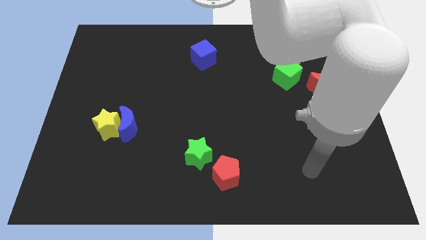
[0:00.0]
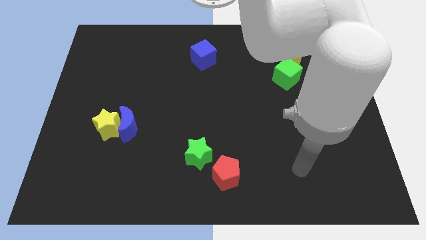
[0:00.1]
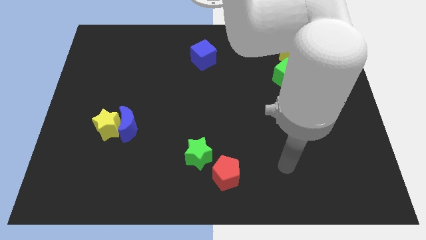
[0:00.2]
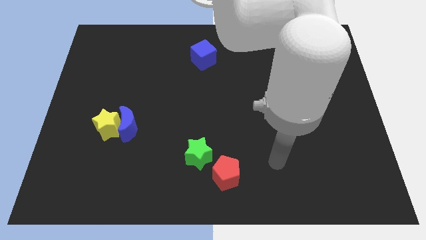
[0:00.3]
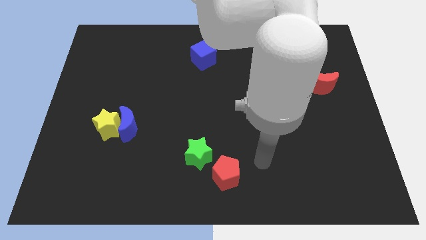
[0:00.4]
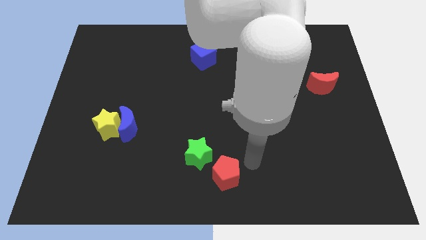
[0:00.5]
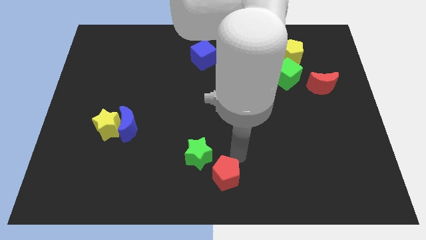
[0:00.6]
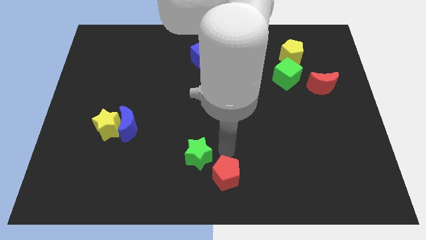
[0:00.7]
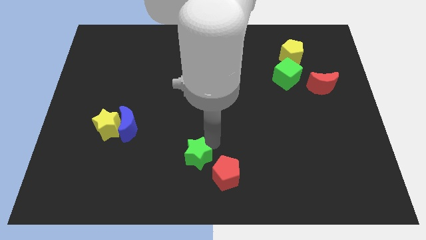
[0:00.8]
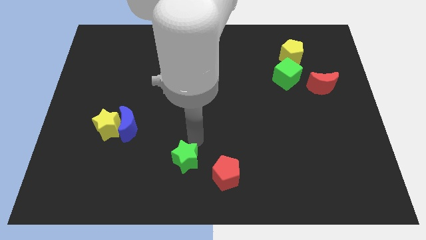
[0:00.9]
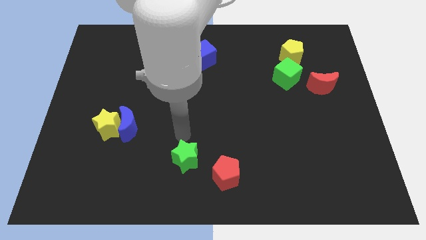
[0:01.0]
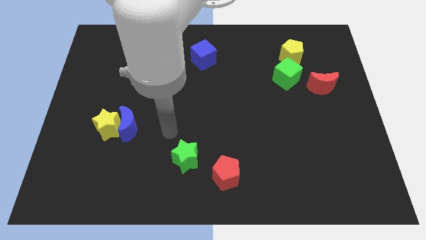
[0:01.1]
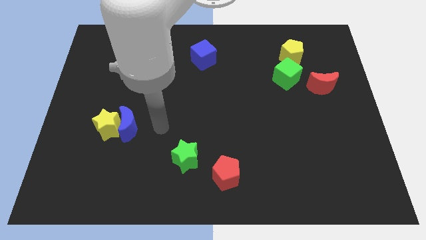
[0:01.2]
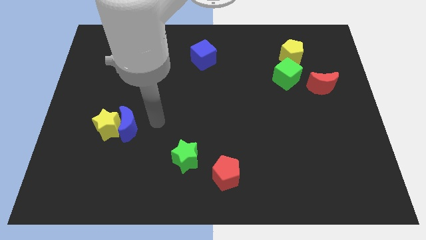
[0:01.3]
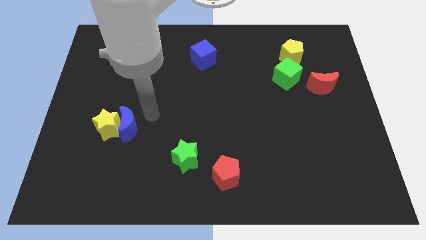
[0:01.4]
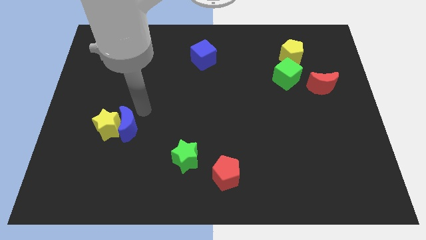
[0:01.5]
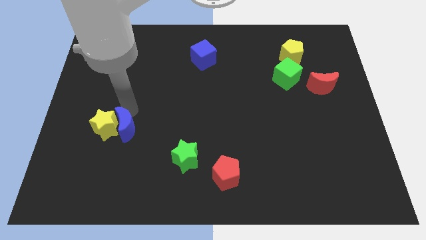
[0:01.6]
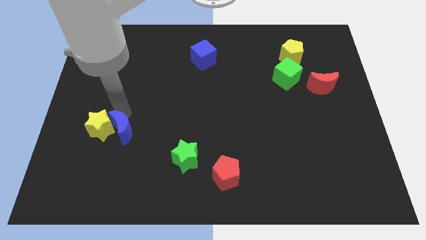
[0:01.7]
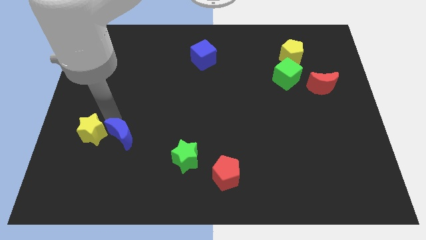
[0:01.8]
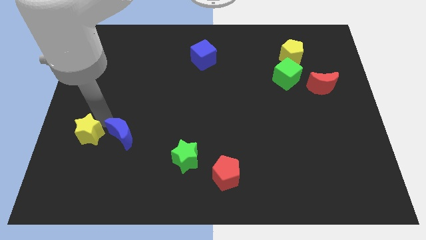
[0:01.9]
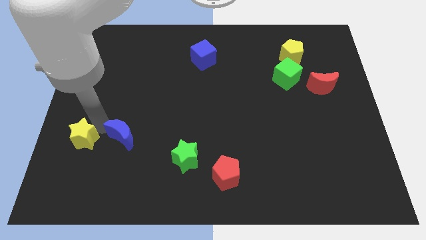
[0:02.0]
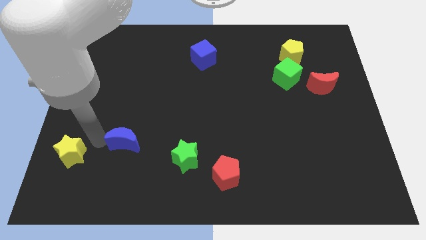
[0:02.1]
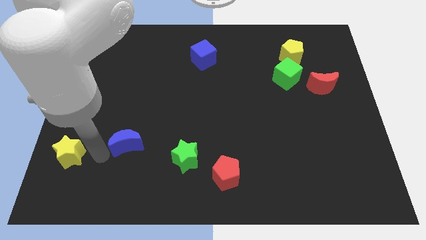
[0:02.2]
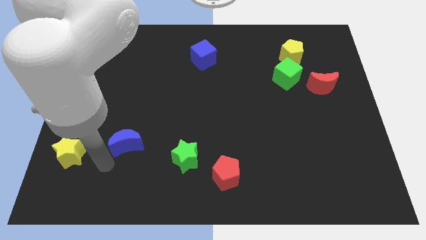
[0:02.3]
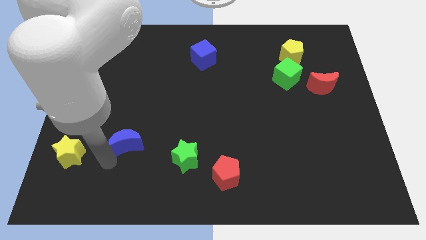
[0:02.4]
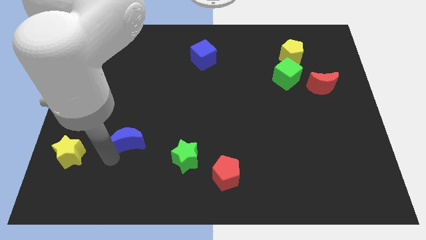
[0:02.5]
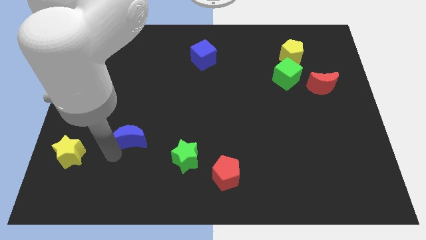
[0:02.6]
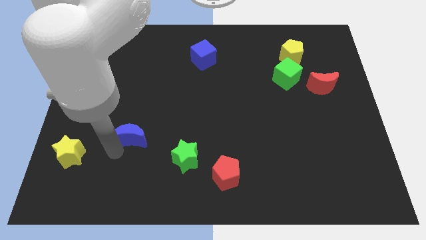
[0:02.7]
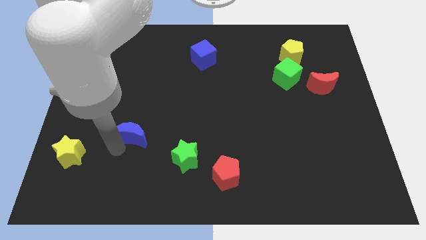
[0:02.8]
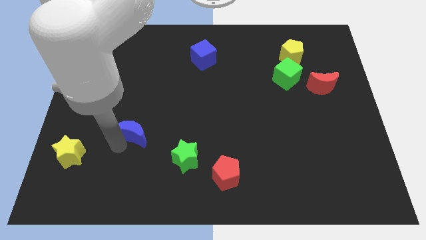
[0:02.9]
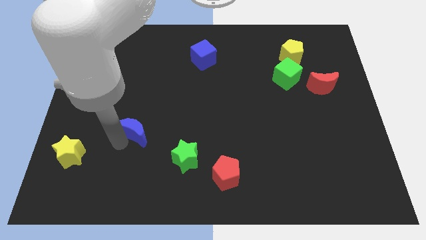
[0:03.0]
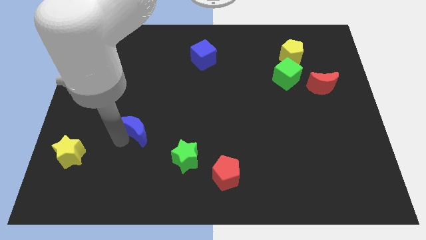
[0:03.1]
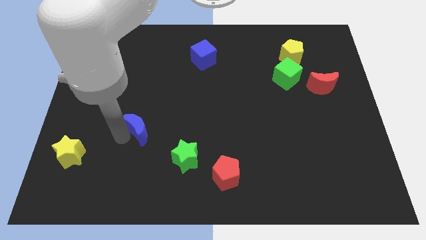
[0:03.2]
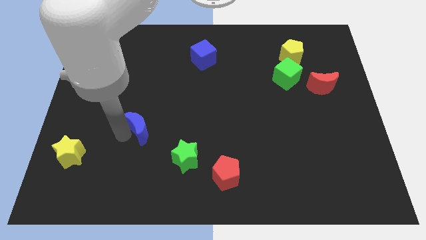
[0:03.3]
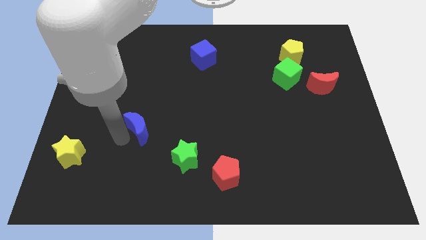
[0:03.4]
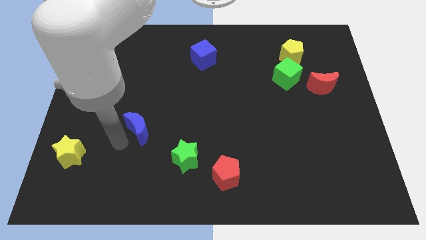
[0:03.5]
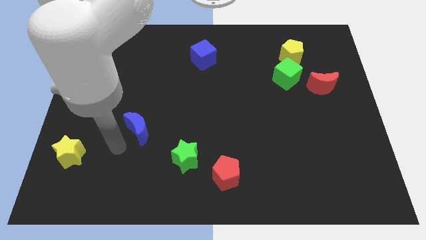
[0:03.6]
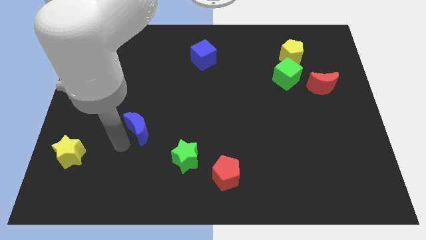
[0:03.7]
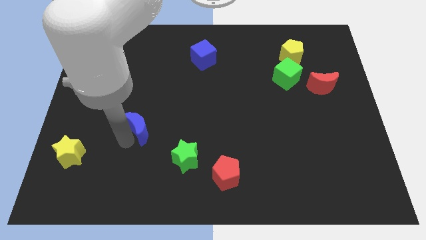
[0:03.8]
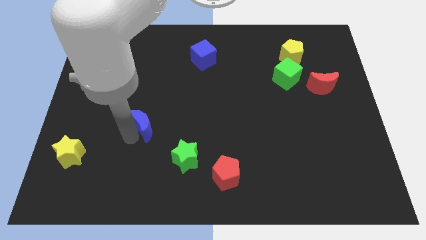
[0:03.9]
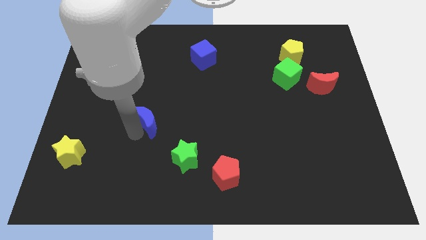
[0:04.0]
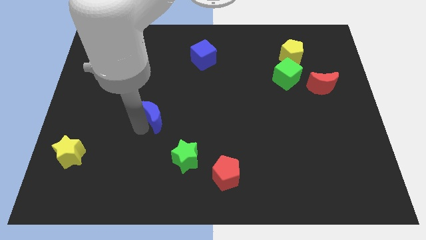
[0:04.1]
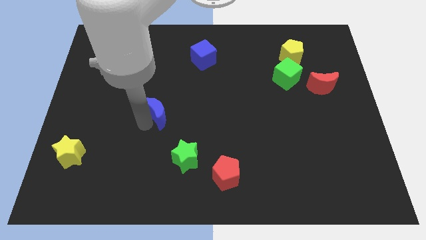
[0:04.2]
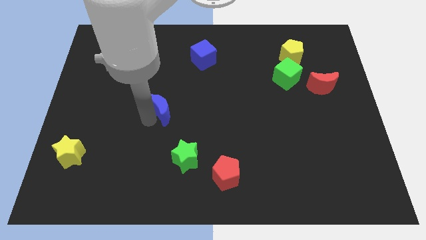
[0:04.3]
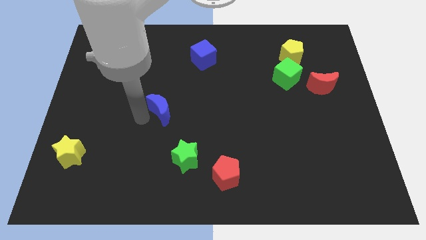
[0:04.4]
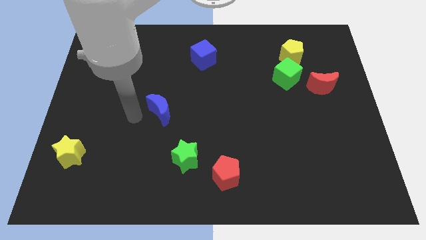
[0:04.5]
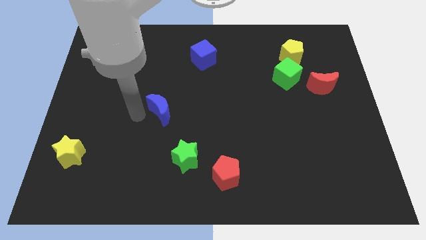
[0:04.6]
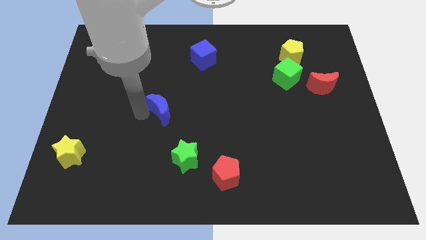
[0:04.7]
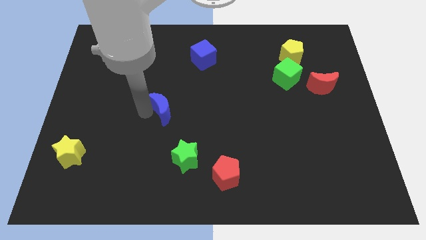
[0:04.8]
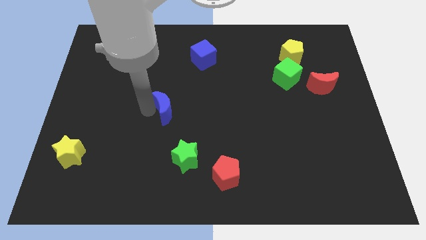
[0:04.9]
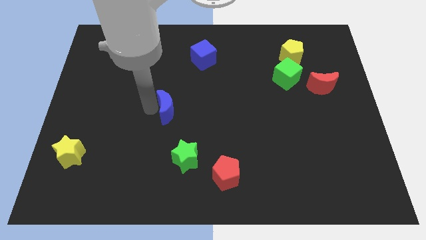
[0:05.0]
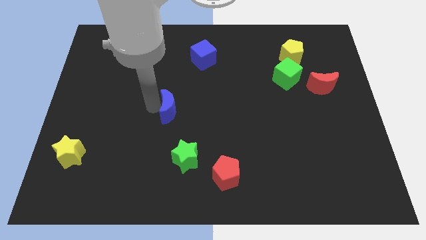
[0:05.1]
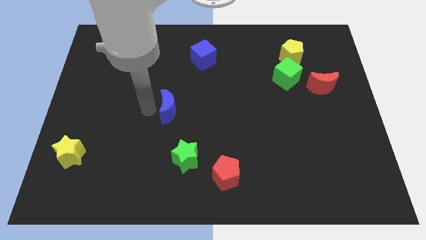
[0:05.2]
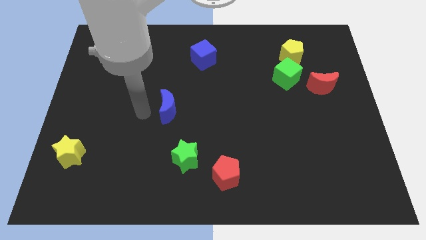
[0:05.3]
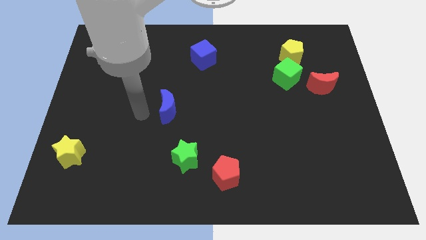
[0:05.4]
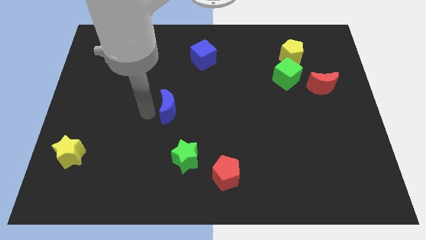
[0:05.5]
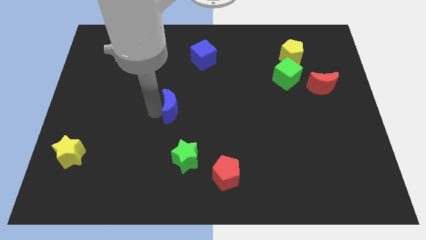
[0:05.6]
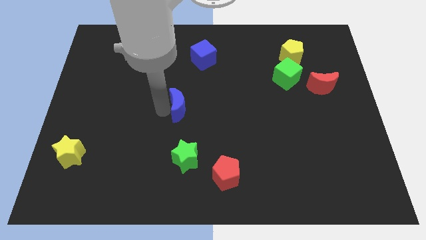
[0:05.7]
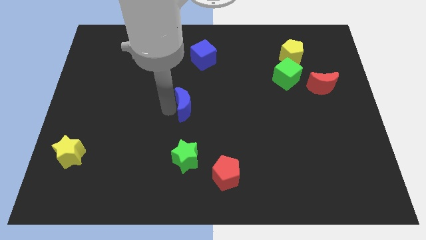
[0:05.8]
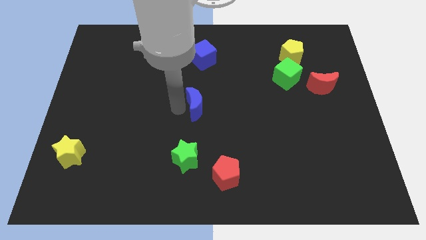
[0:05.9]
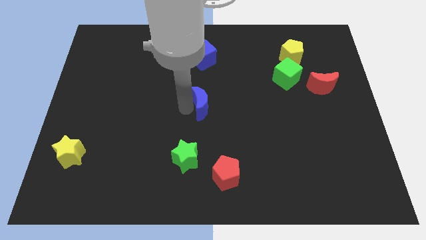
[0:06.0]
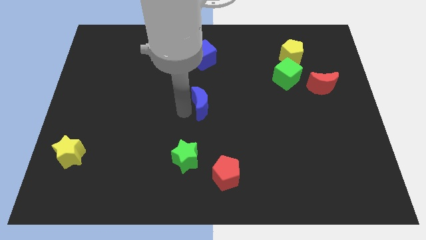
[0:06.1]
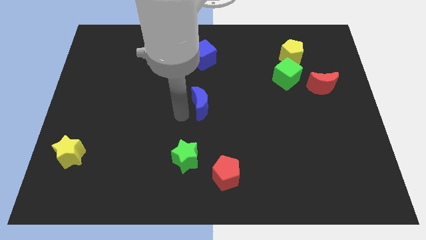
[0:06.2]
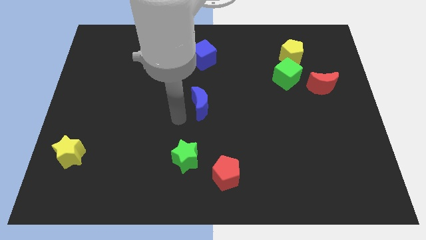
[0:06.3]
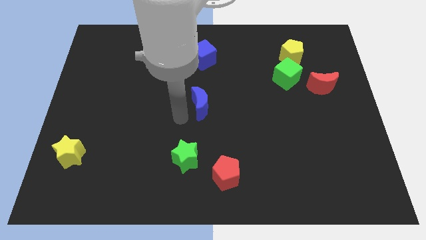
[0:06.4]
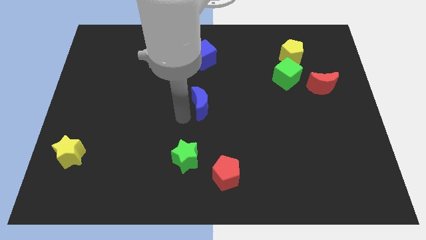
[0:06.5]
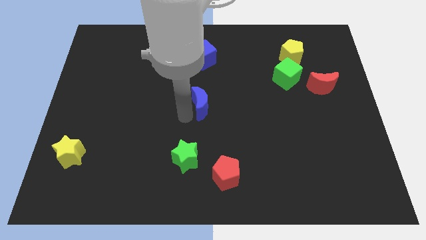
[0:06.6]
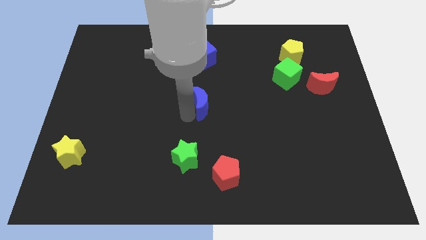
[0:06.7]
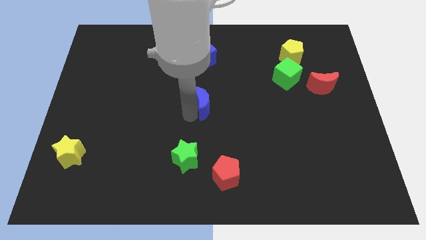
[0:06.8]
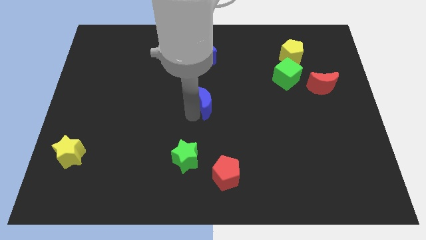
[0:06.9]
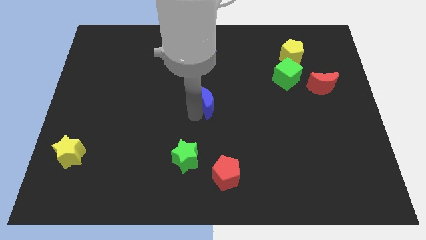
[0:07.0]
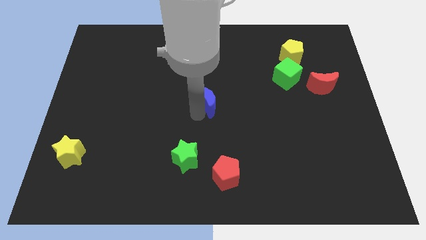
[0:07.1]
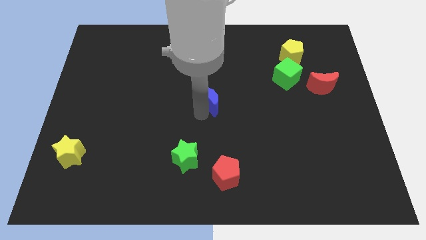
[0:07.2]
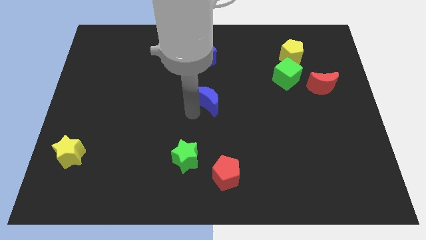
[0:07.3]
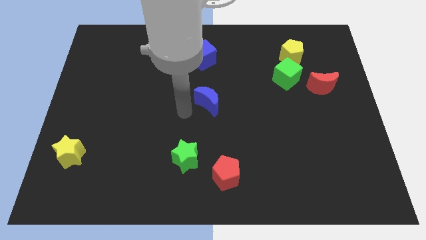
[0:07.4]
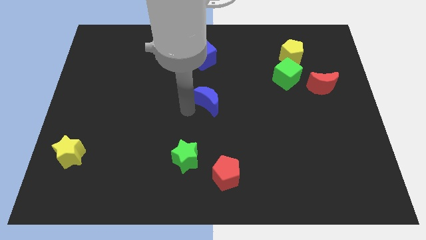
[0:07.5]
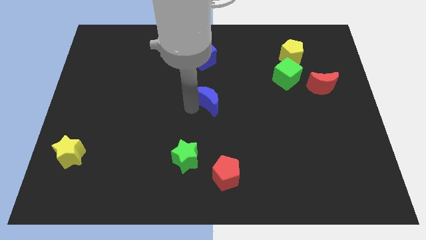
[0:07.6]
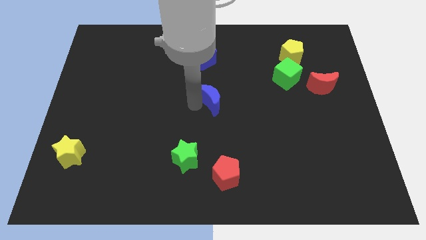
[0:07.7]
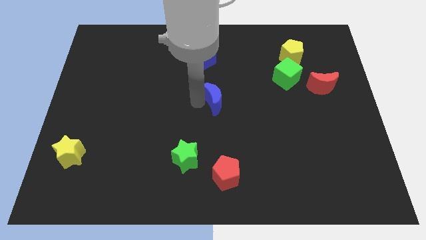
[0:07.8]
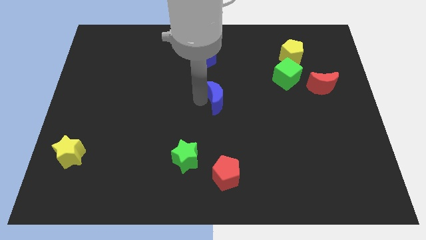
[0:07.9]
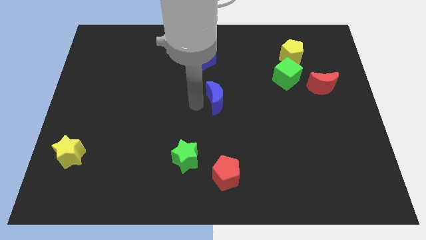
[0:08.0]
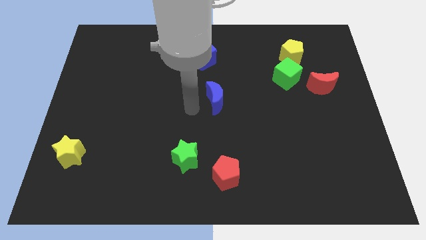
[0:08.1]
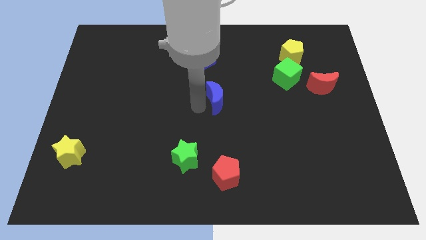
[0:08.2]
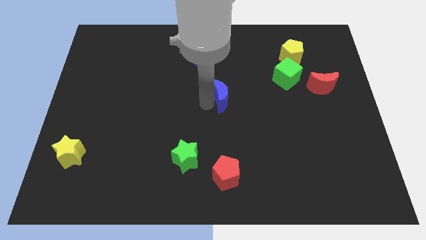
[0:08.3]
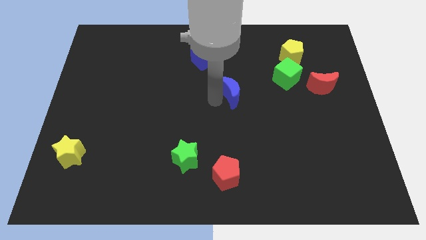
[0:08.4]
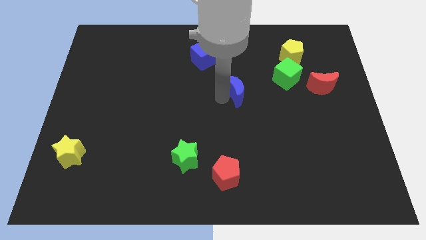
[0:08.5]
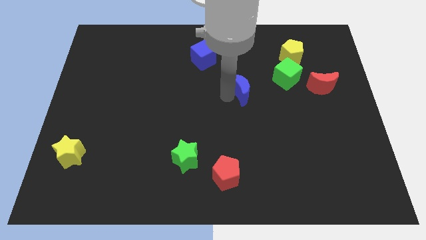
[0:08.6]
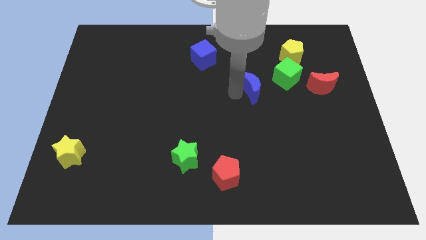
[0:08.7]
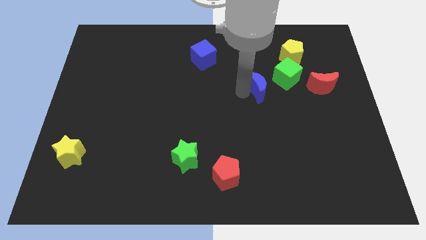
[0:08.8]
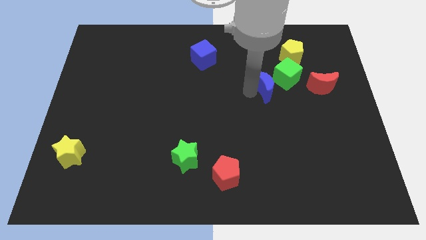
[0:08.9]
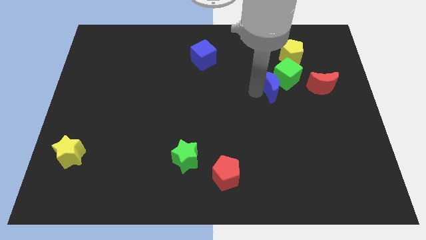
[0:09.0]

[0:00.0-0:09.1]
move the blue moon close to the green cube
